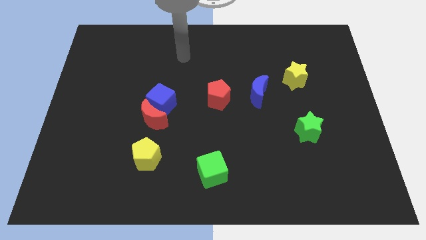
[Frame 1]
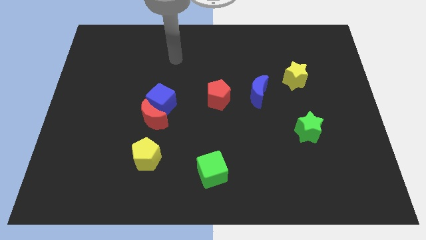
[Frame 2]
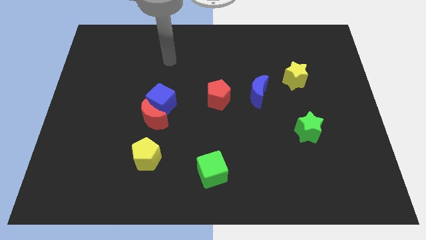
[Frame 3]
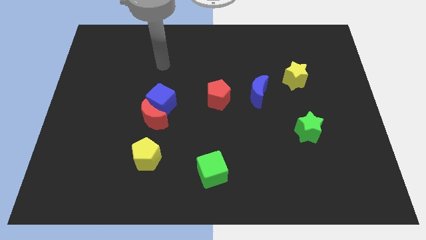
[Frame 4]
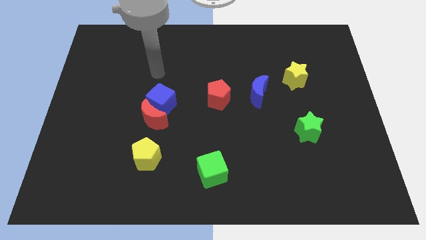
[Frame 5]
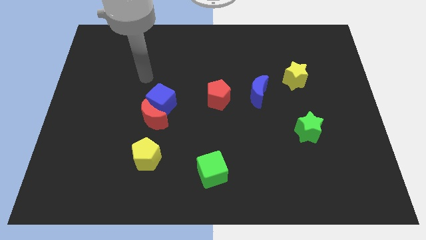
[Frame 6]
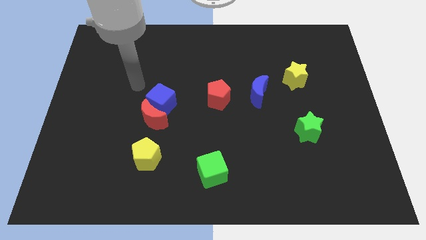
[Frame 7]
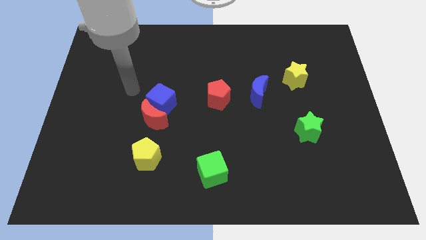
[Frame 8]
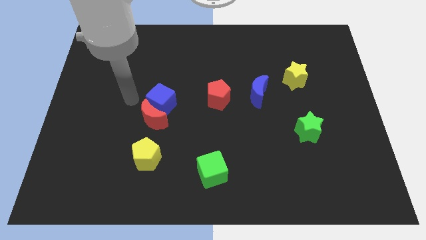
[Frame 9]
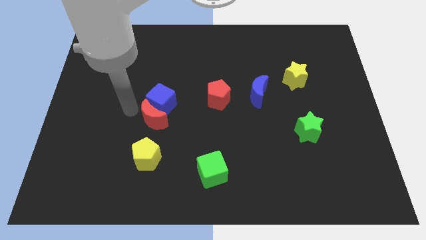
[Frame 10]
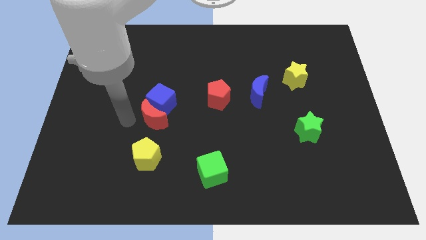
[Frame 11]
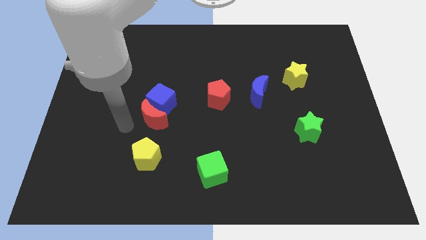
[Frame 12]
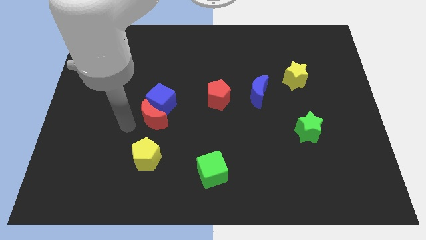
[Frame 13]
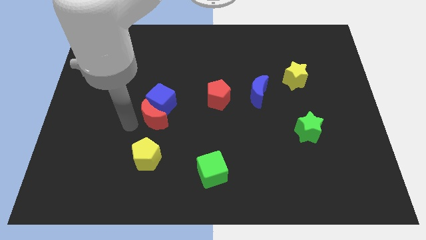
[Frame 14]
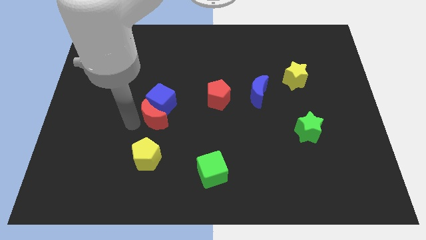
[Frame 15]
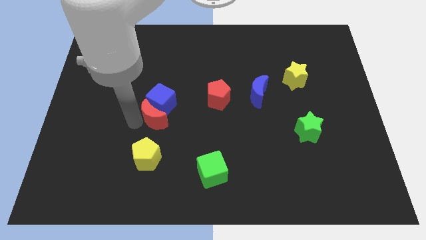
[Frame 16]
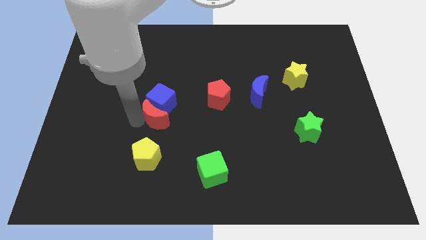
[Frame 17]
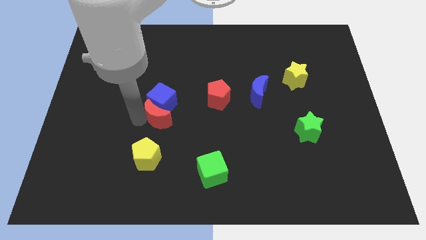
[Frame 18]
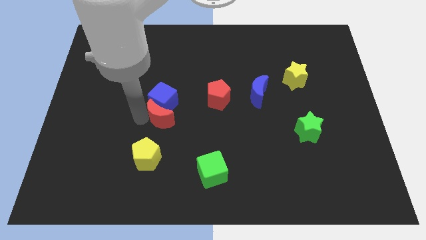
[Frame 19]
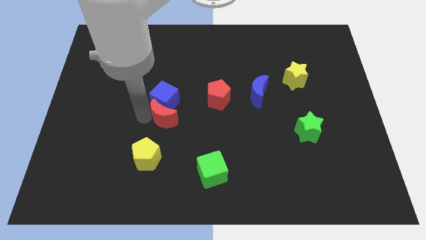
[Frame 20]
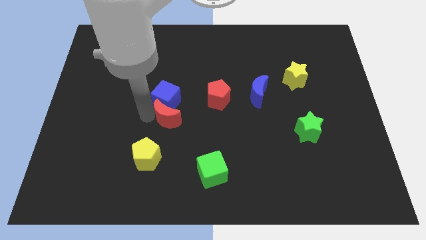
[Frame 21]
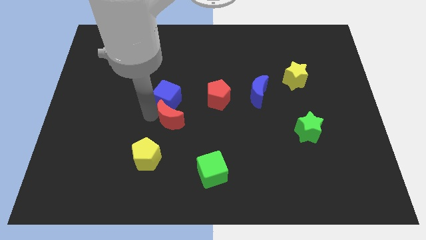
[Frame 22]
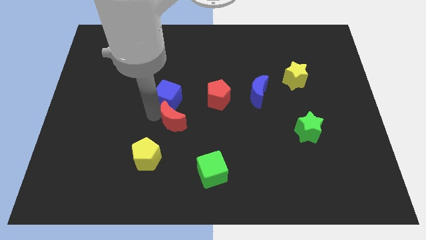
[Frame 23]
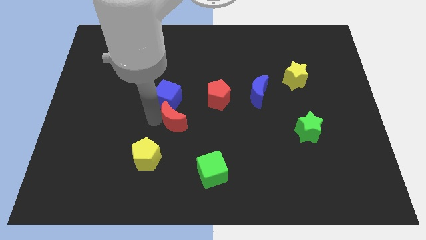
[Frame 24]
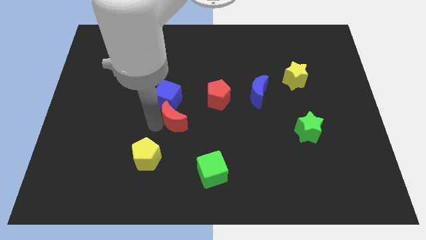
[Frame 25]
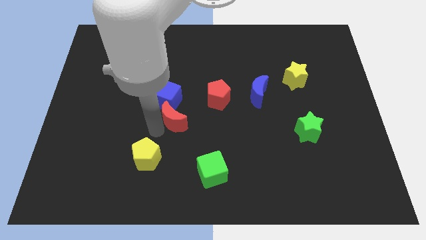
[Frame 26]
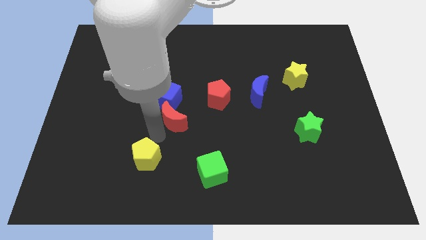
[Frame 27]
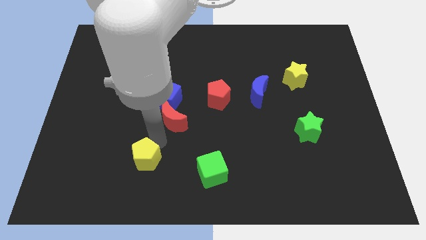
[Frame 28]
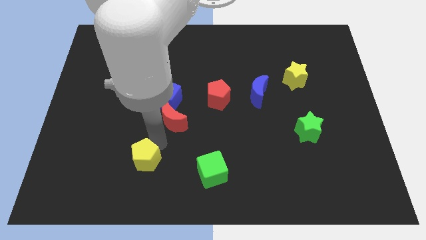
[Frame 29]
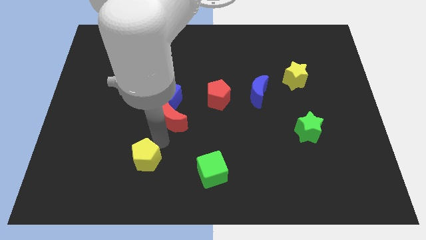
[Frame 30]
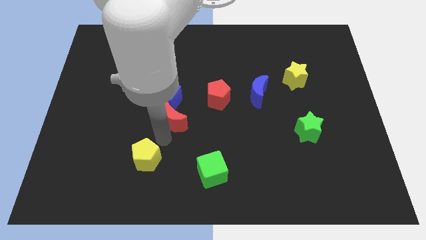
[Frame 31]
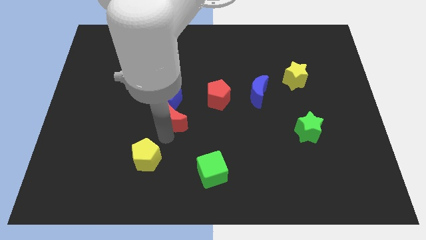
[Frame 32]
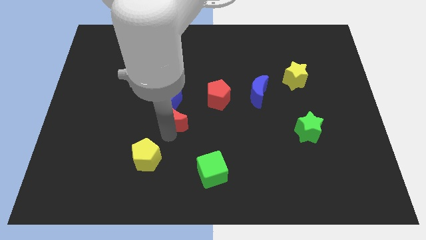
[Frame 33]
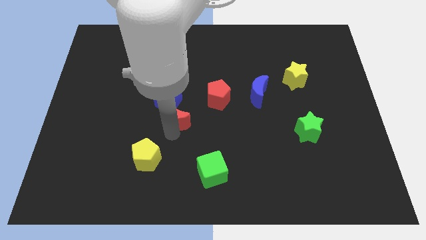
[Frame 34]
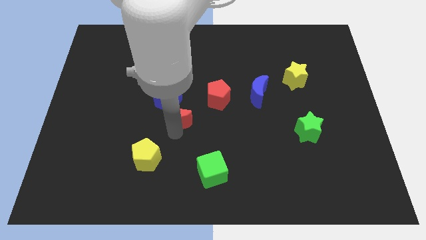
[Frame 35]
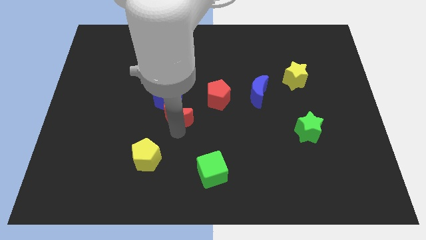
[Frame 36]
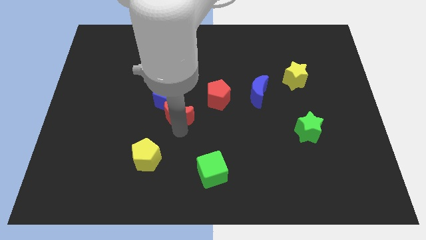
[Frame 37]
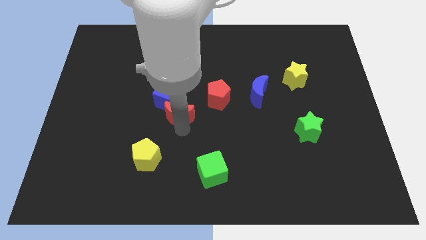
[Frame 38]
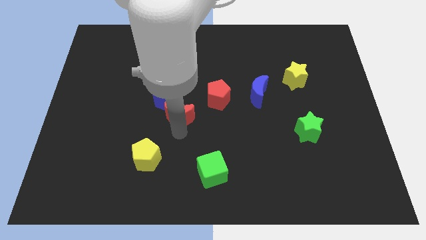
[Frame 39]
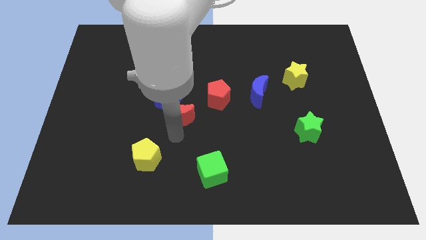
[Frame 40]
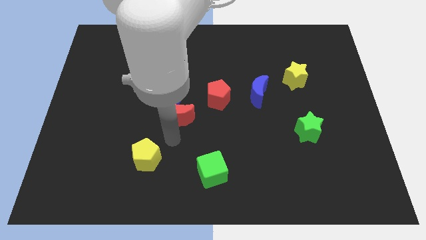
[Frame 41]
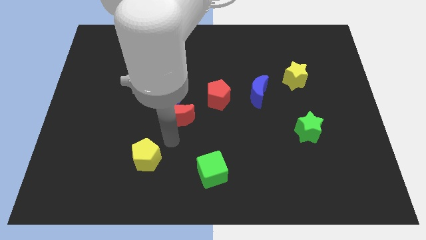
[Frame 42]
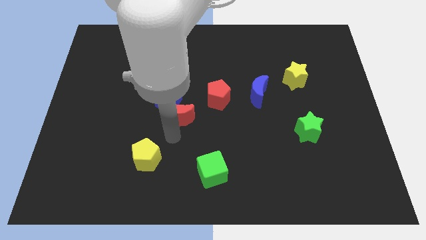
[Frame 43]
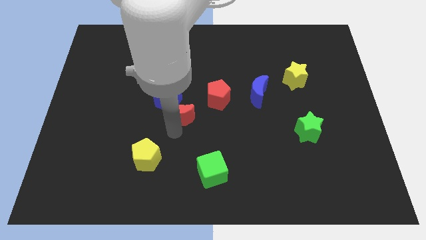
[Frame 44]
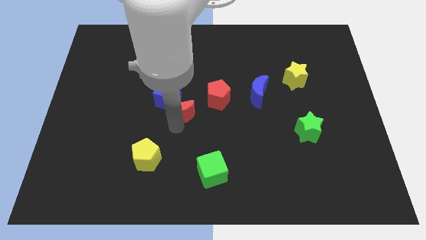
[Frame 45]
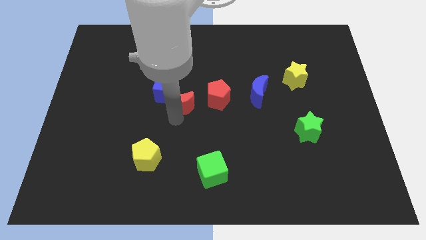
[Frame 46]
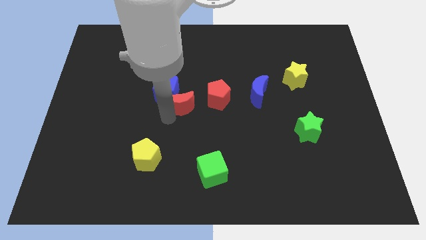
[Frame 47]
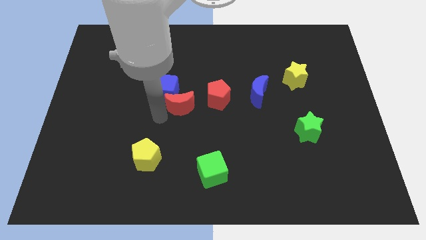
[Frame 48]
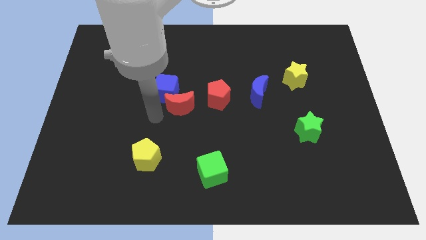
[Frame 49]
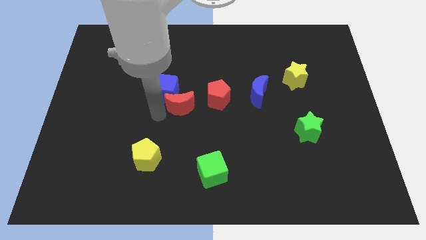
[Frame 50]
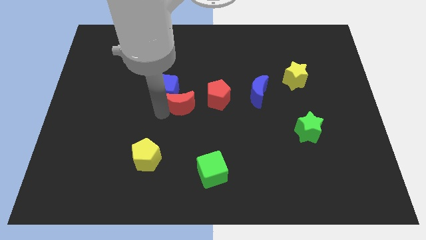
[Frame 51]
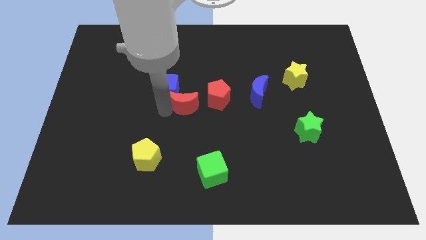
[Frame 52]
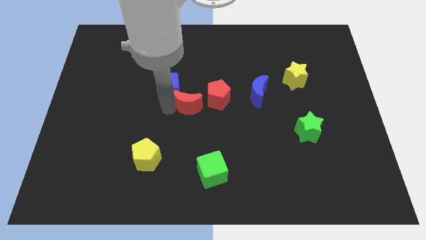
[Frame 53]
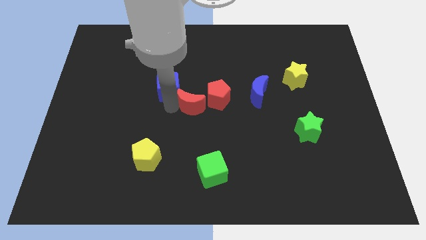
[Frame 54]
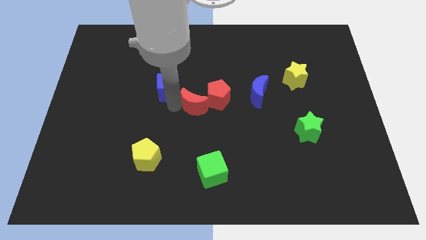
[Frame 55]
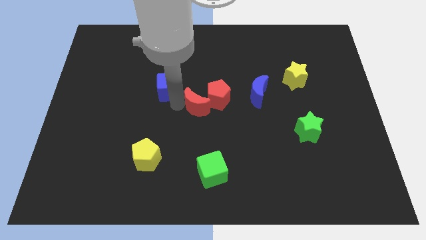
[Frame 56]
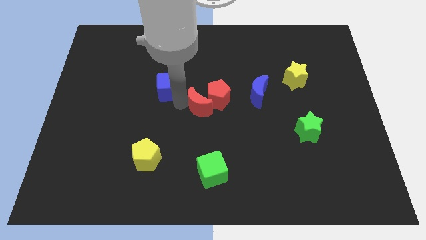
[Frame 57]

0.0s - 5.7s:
put the red moon to the left side of the blue moon
